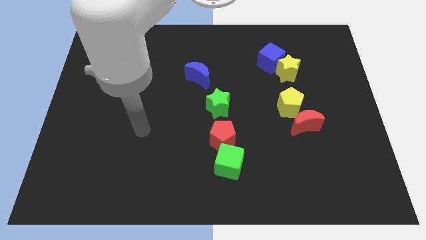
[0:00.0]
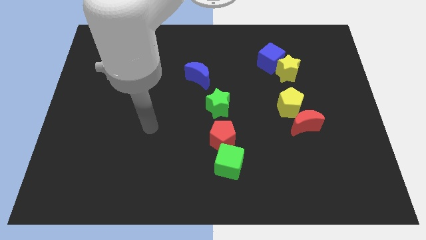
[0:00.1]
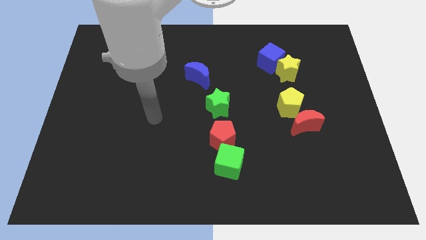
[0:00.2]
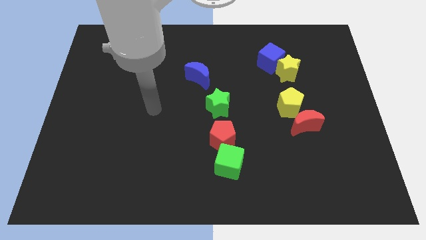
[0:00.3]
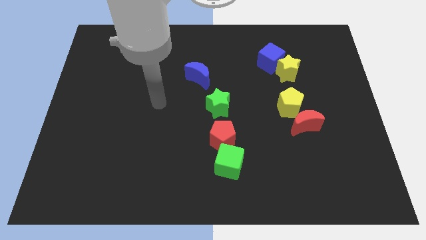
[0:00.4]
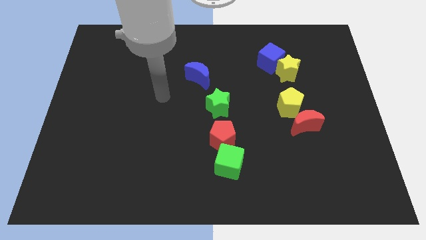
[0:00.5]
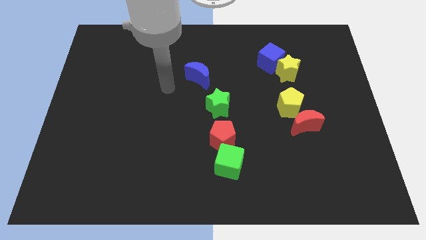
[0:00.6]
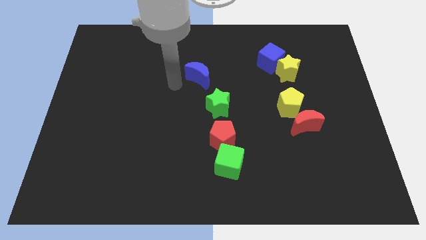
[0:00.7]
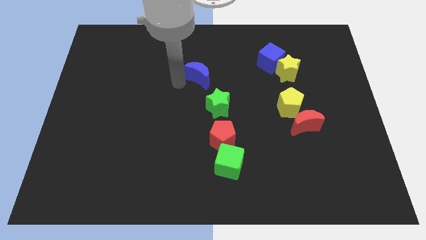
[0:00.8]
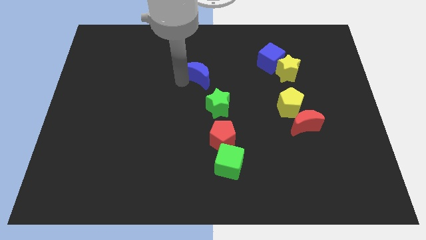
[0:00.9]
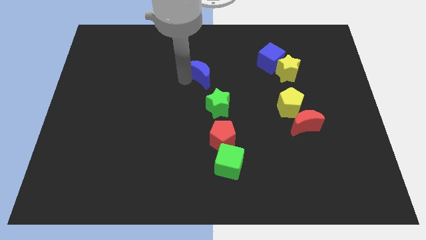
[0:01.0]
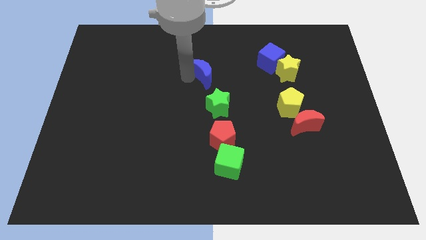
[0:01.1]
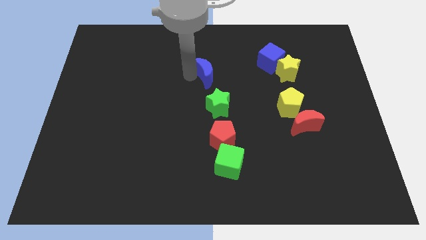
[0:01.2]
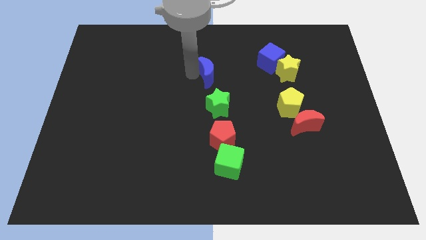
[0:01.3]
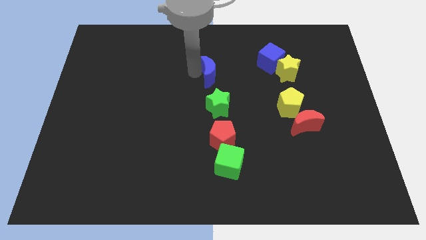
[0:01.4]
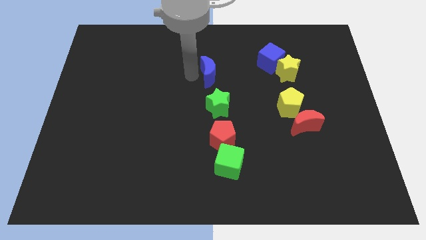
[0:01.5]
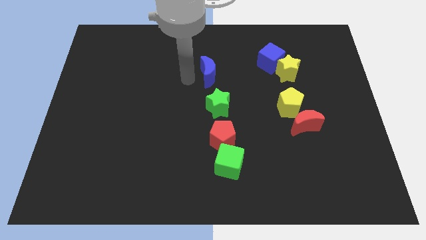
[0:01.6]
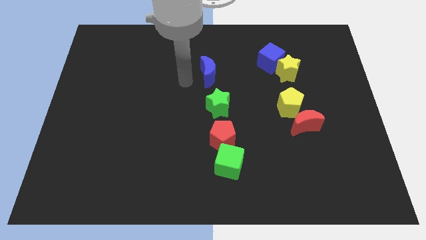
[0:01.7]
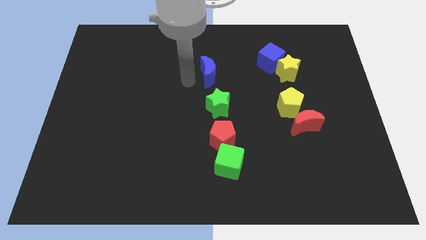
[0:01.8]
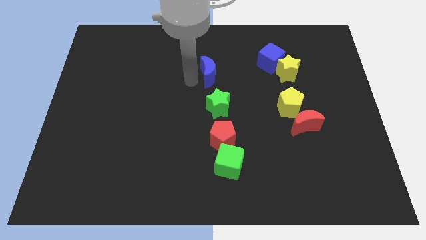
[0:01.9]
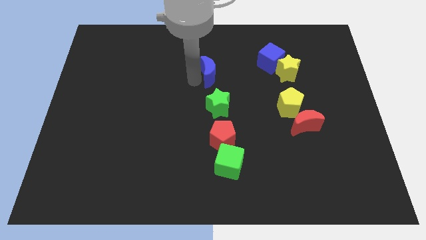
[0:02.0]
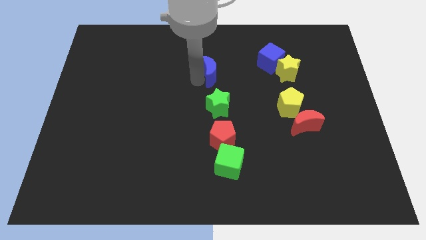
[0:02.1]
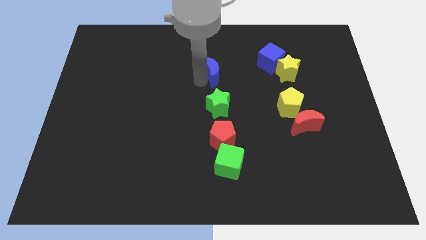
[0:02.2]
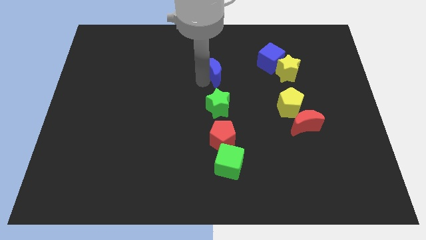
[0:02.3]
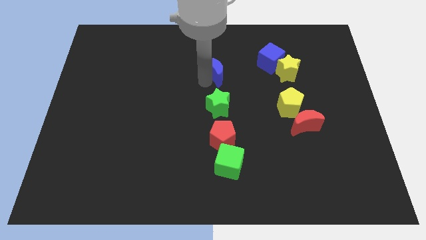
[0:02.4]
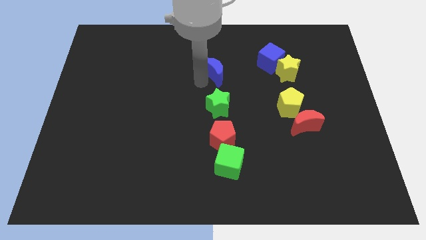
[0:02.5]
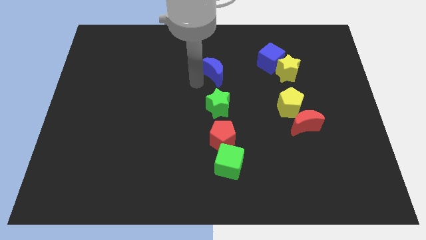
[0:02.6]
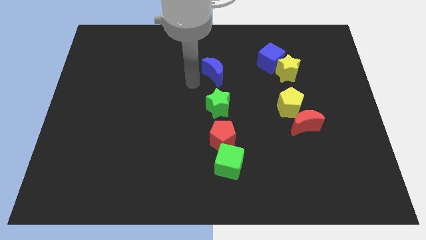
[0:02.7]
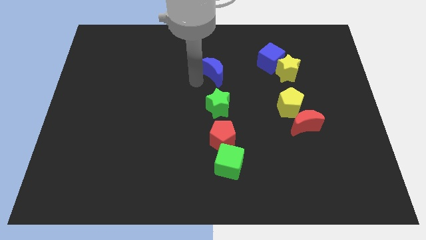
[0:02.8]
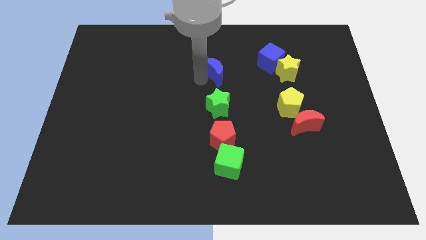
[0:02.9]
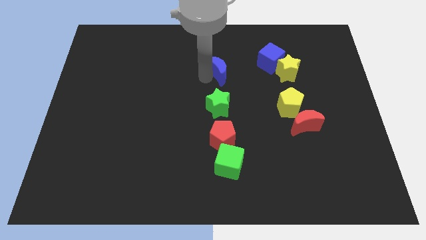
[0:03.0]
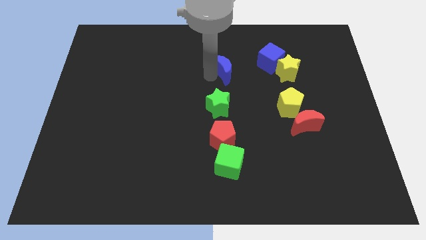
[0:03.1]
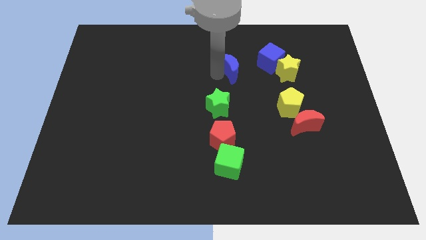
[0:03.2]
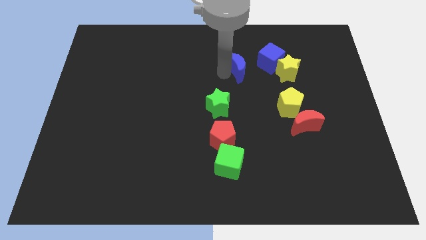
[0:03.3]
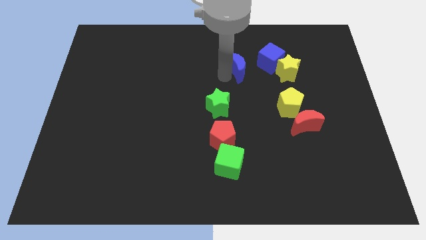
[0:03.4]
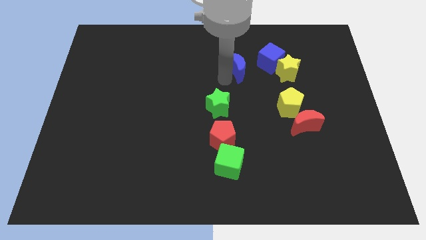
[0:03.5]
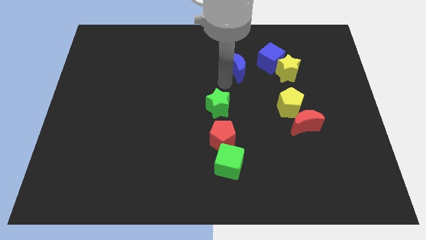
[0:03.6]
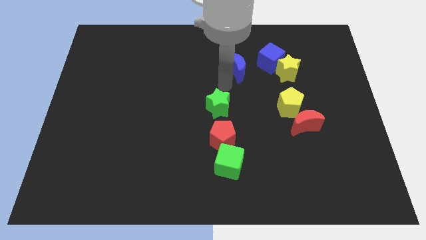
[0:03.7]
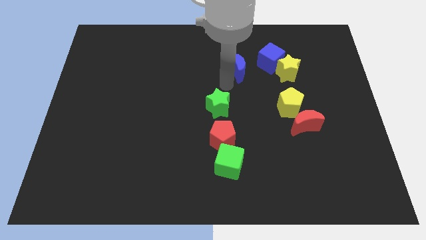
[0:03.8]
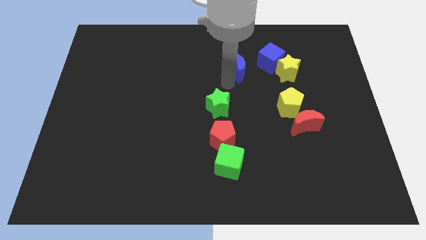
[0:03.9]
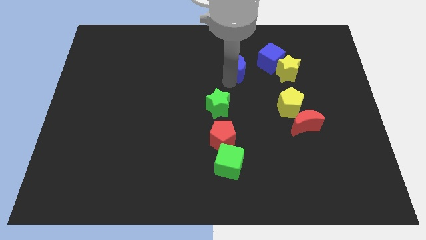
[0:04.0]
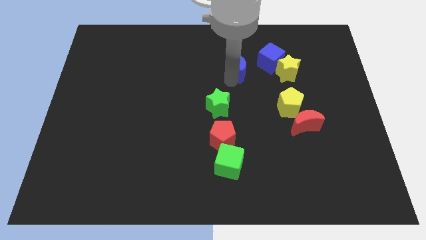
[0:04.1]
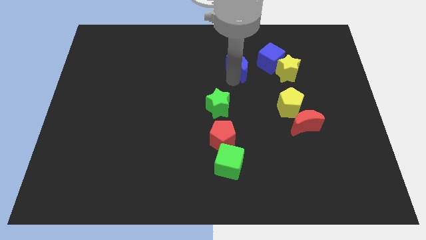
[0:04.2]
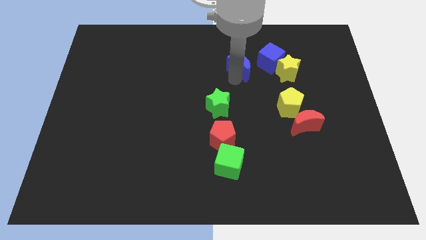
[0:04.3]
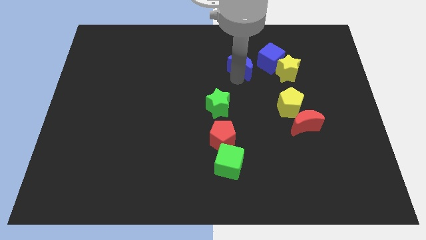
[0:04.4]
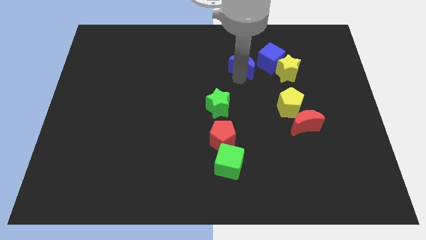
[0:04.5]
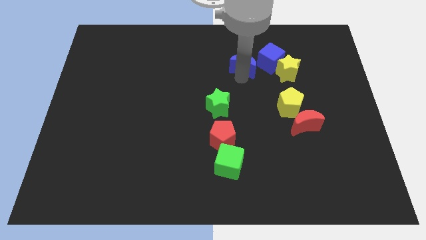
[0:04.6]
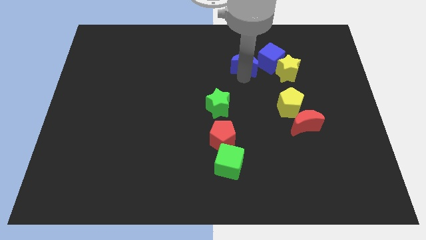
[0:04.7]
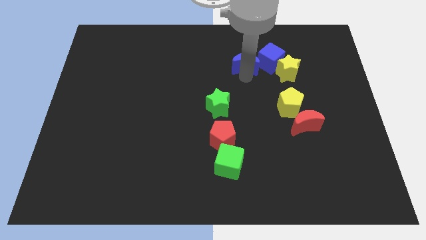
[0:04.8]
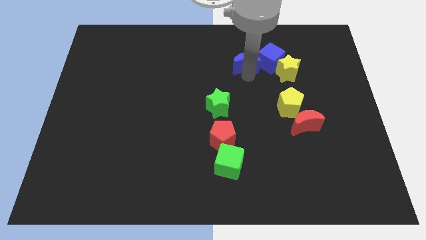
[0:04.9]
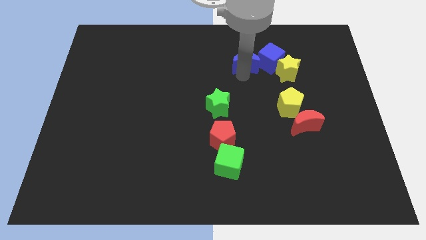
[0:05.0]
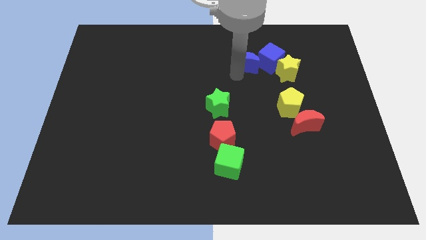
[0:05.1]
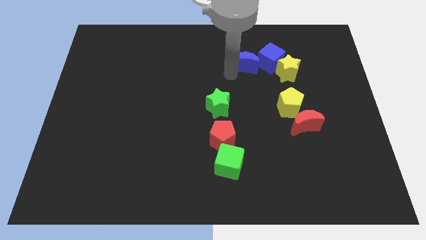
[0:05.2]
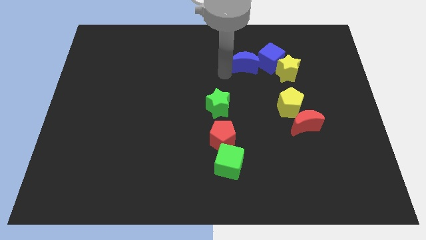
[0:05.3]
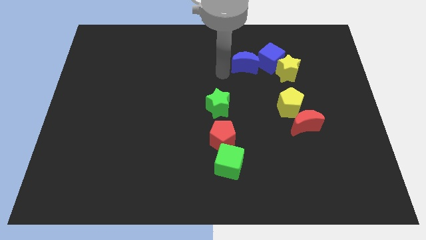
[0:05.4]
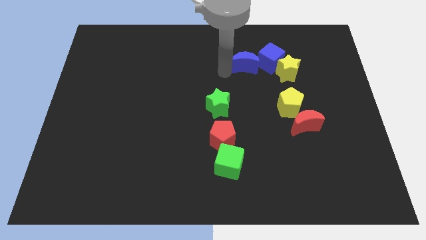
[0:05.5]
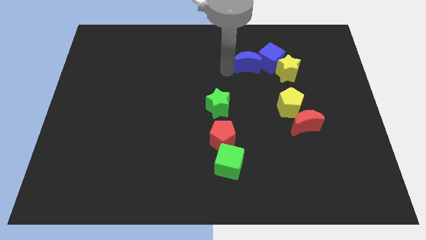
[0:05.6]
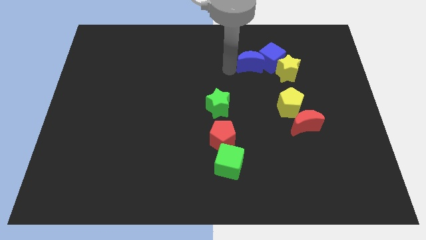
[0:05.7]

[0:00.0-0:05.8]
slide the blue moon to the top left of the yellow star

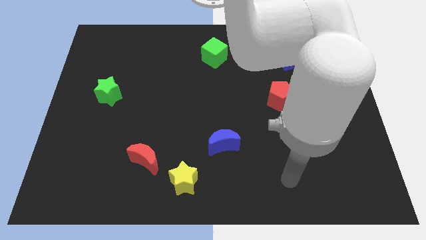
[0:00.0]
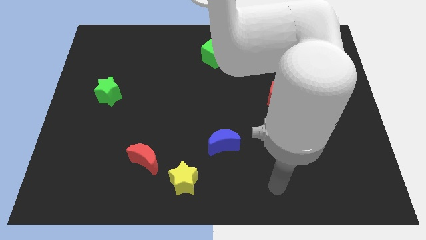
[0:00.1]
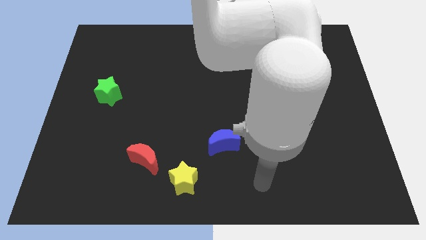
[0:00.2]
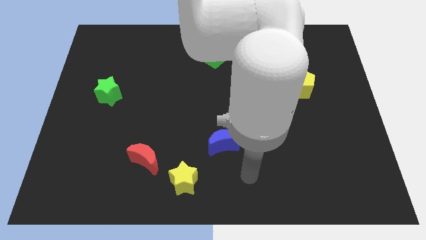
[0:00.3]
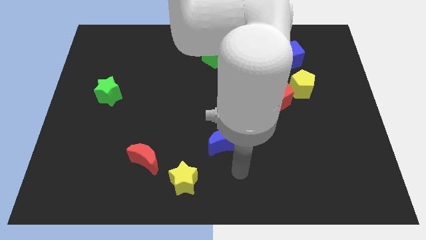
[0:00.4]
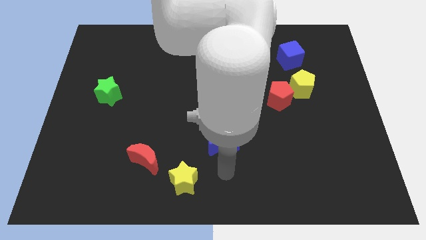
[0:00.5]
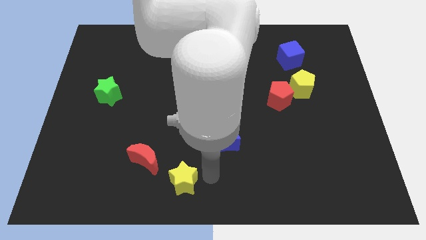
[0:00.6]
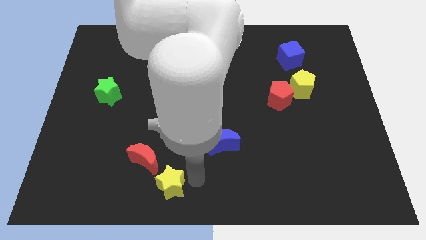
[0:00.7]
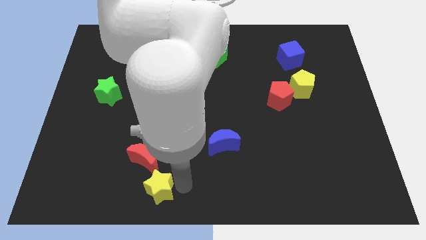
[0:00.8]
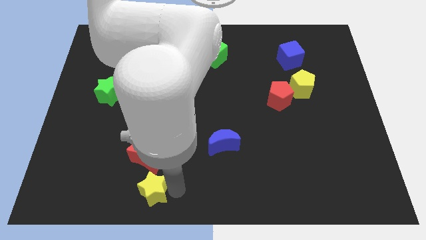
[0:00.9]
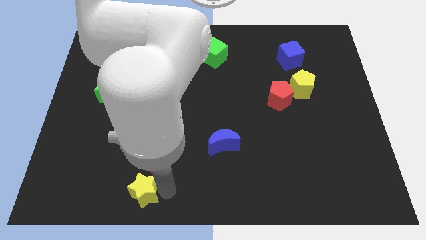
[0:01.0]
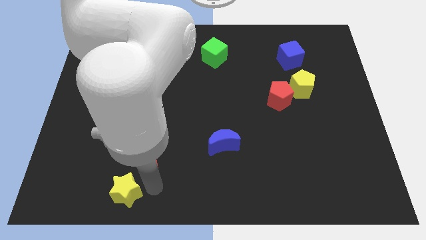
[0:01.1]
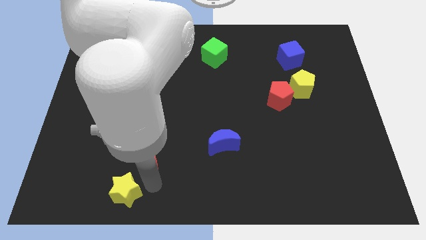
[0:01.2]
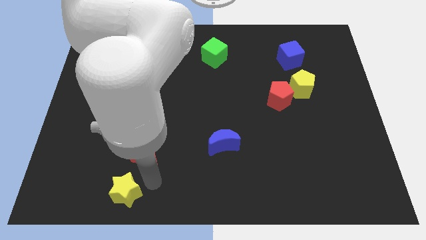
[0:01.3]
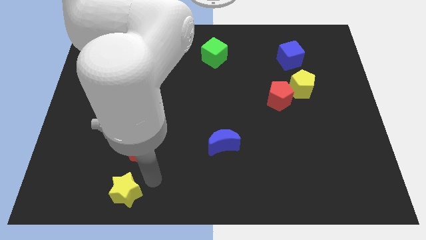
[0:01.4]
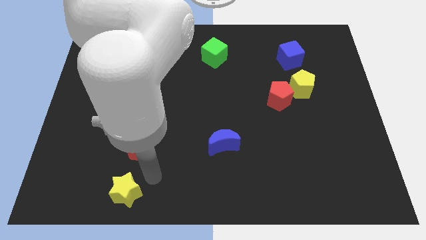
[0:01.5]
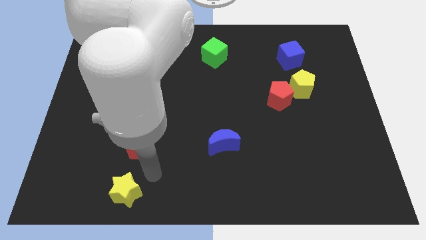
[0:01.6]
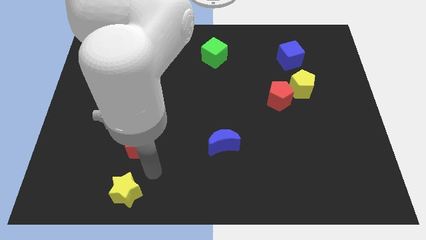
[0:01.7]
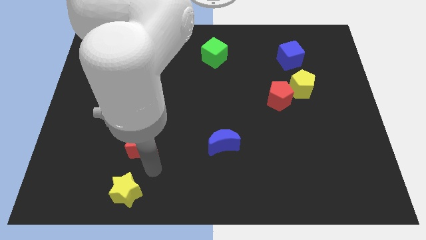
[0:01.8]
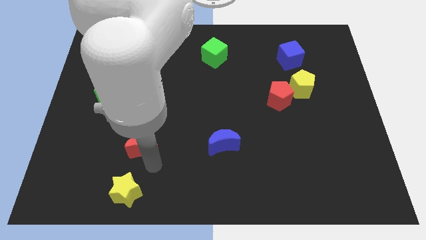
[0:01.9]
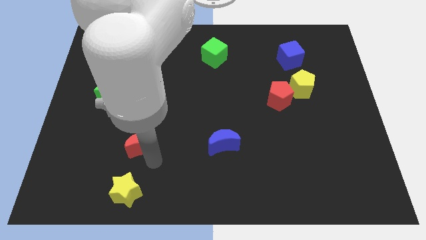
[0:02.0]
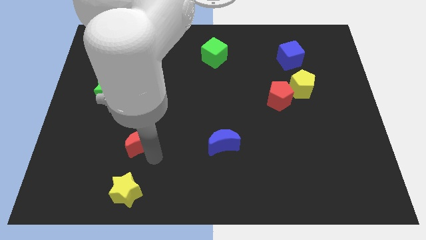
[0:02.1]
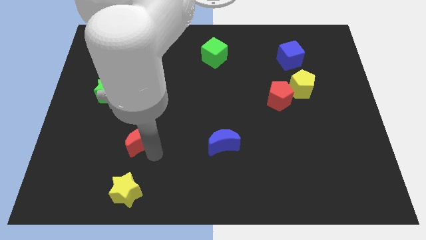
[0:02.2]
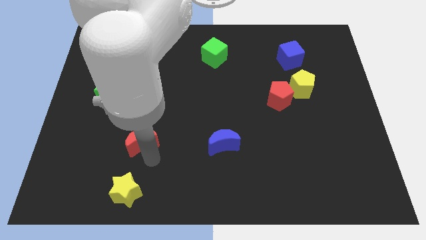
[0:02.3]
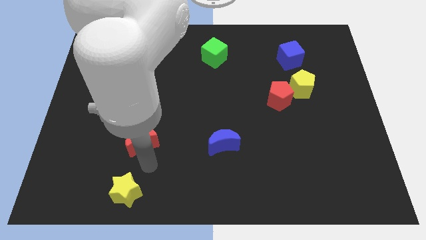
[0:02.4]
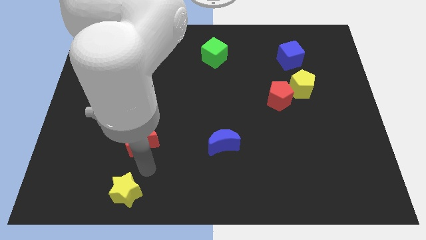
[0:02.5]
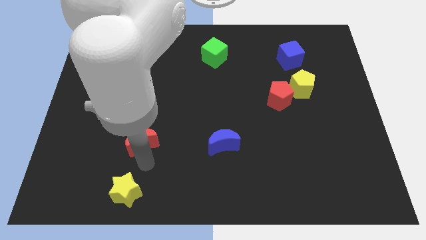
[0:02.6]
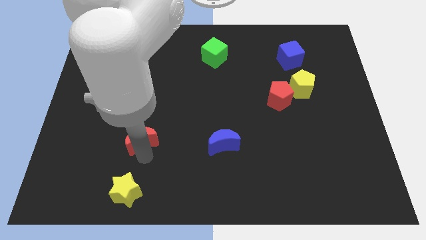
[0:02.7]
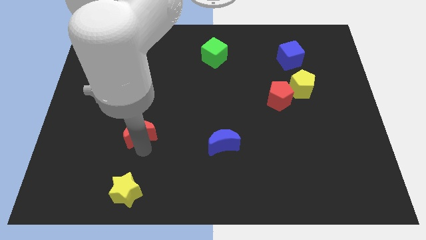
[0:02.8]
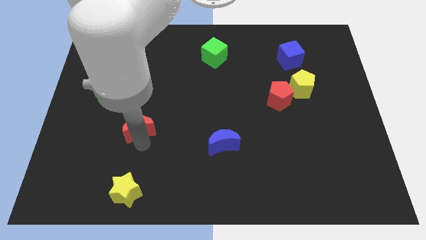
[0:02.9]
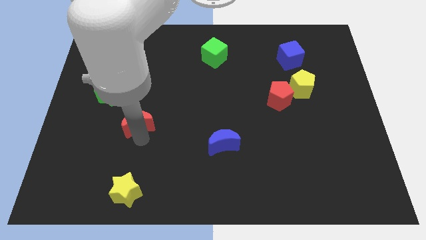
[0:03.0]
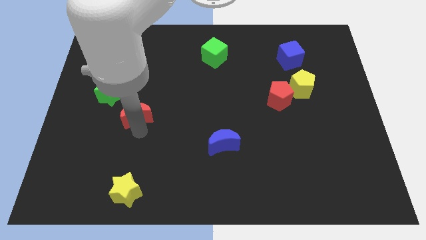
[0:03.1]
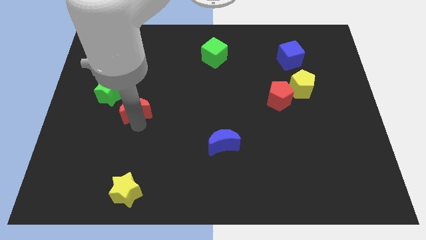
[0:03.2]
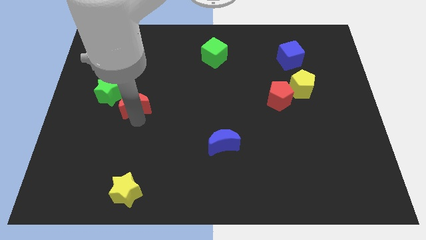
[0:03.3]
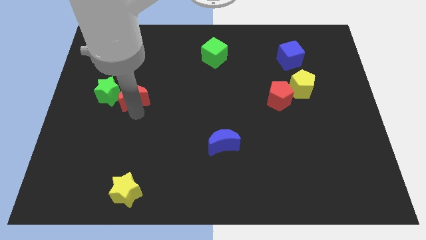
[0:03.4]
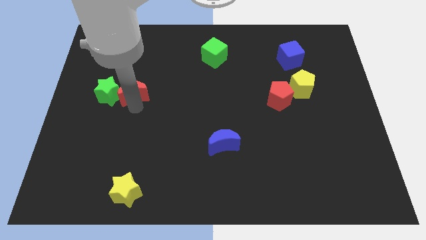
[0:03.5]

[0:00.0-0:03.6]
push the red moon diagonally up and to the right of the green star
